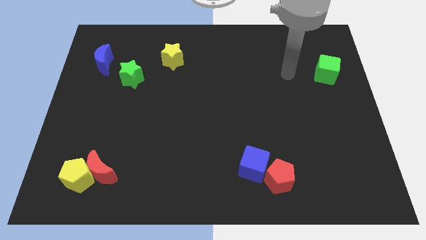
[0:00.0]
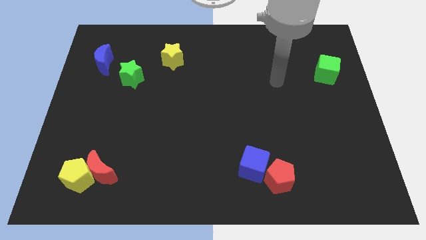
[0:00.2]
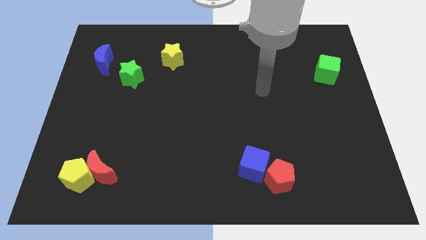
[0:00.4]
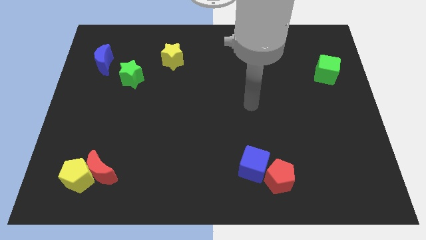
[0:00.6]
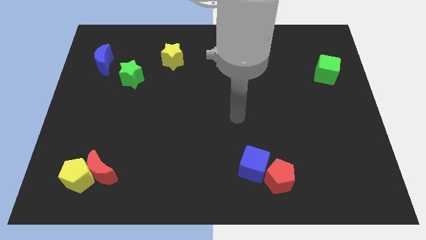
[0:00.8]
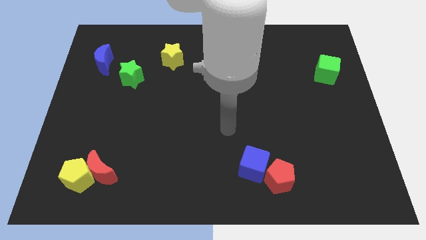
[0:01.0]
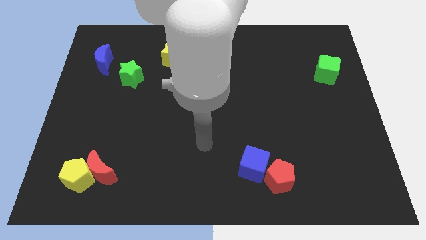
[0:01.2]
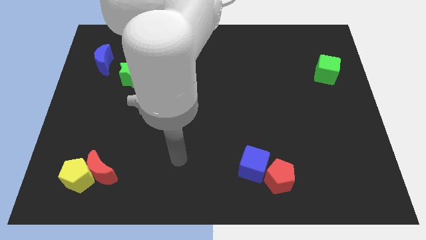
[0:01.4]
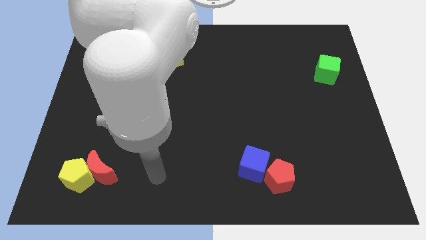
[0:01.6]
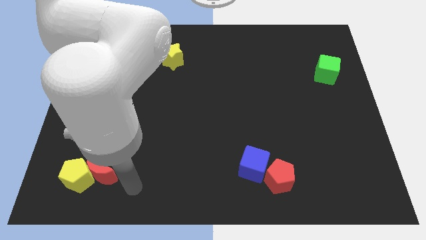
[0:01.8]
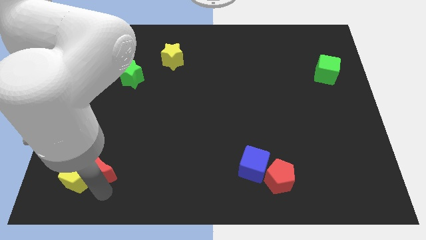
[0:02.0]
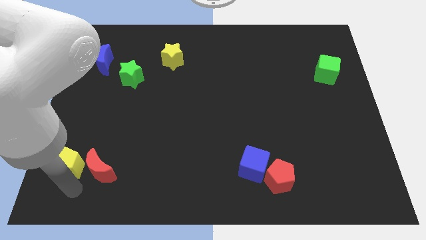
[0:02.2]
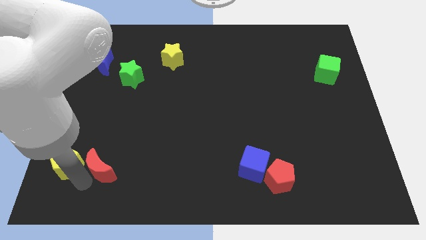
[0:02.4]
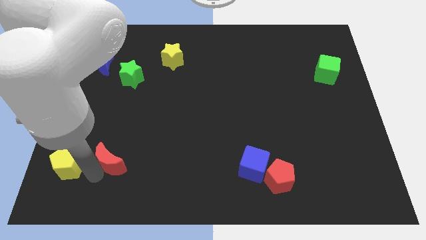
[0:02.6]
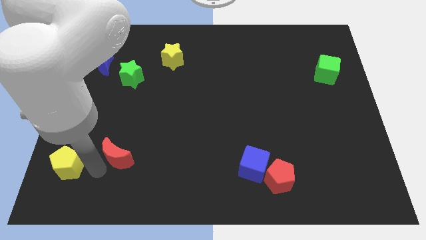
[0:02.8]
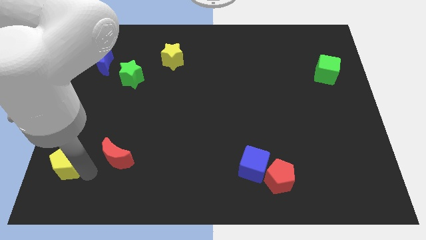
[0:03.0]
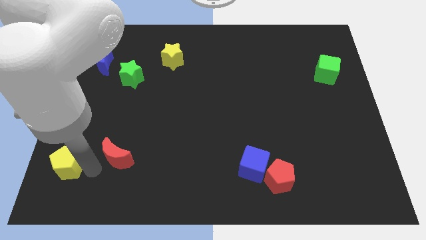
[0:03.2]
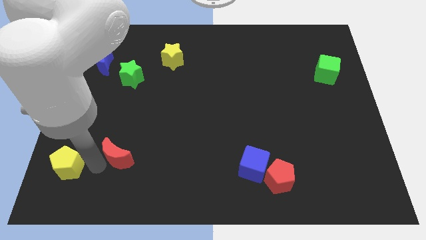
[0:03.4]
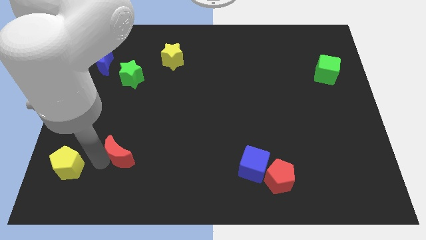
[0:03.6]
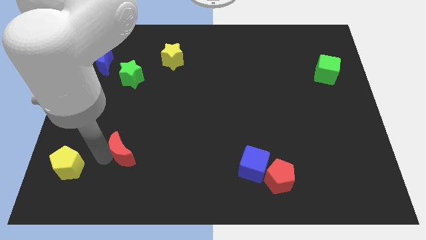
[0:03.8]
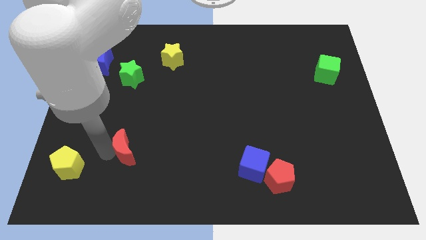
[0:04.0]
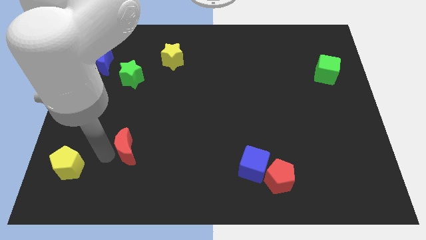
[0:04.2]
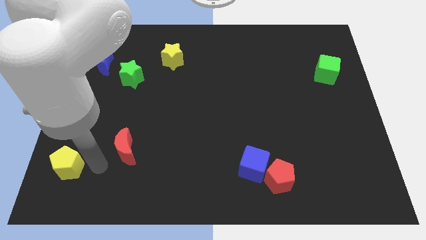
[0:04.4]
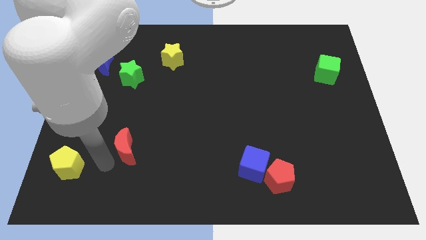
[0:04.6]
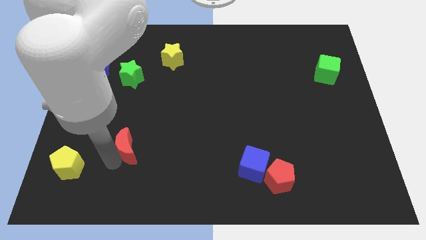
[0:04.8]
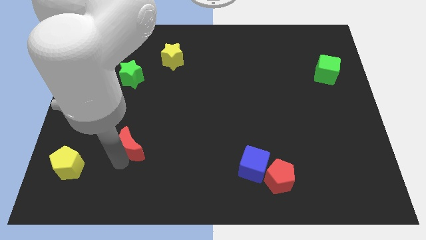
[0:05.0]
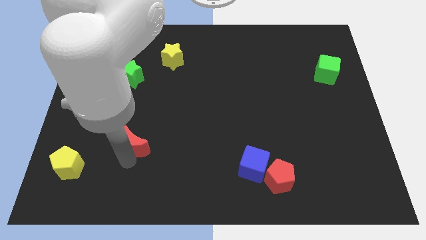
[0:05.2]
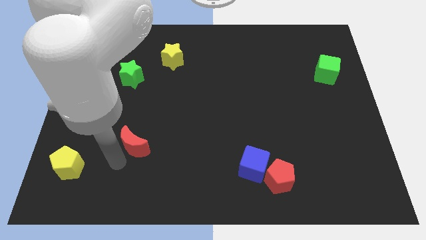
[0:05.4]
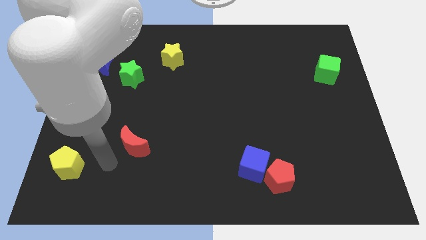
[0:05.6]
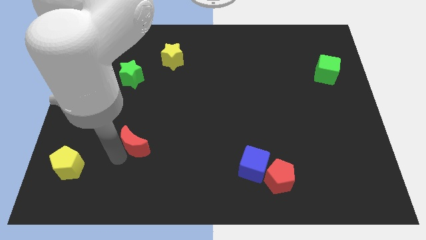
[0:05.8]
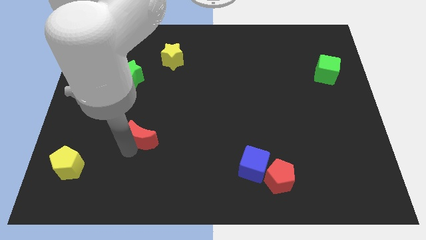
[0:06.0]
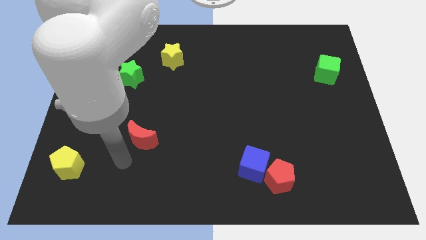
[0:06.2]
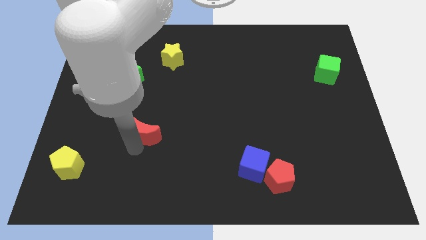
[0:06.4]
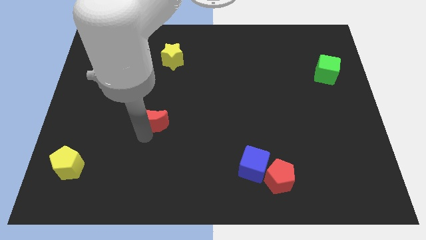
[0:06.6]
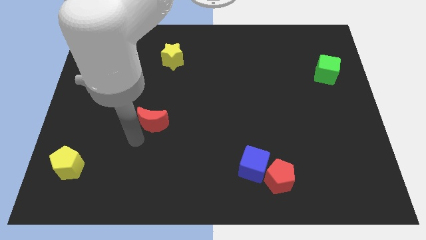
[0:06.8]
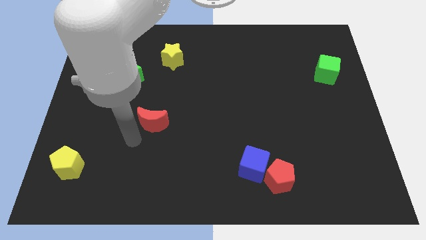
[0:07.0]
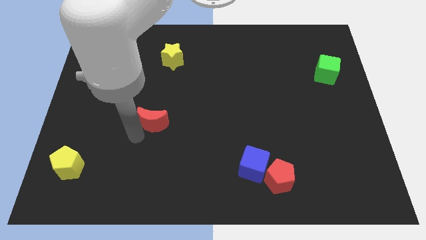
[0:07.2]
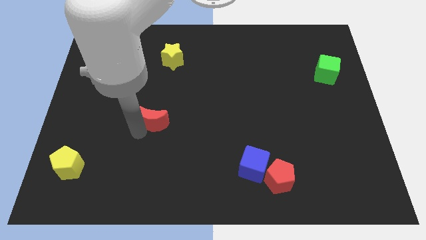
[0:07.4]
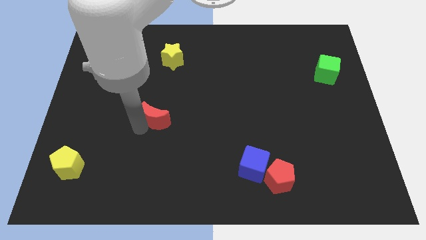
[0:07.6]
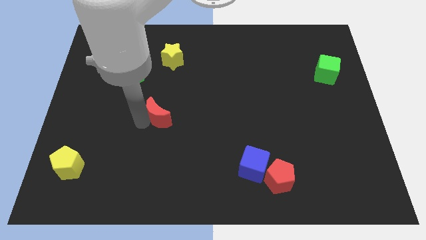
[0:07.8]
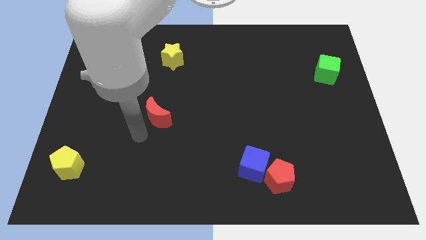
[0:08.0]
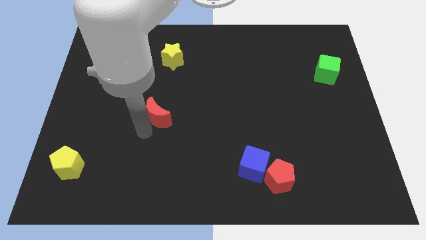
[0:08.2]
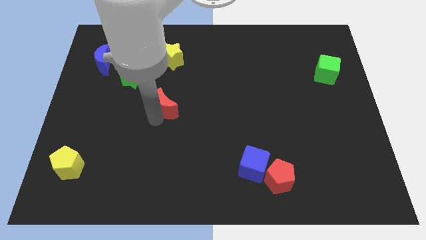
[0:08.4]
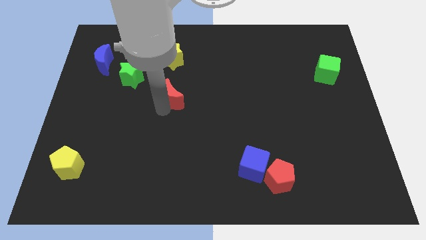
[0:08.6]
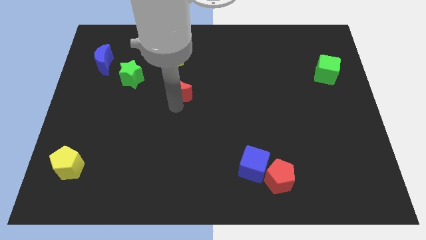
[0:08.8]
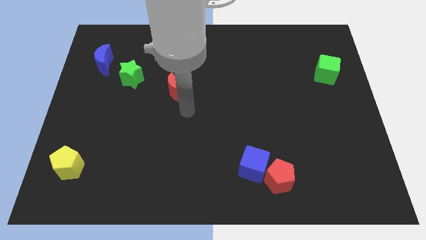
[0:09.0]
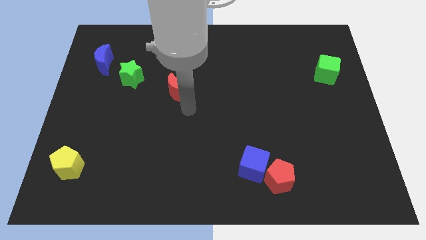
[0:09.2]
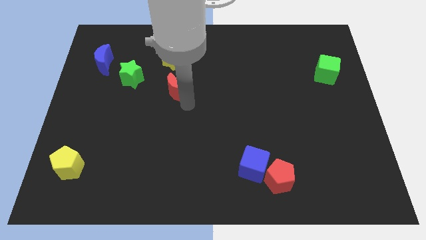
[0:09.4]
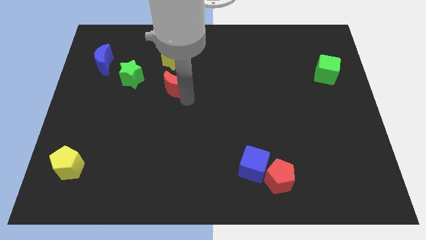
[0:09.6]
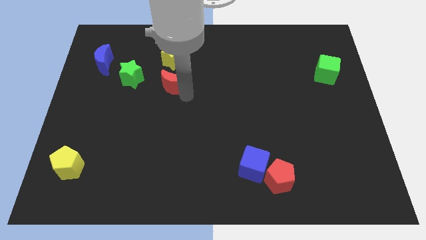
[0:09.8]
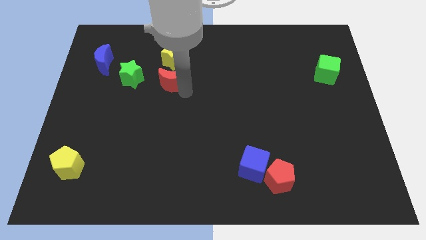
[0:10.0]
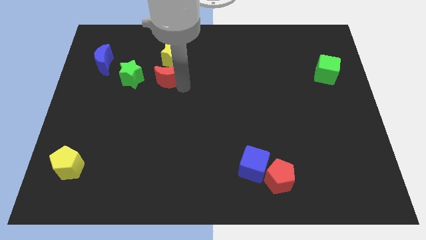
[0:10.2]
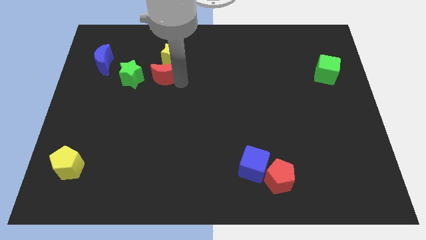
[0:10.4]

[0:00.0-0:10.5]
push the red moon upwards

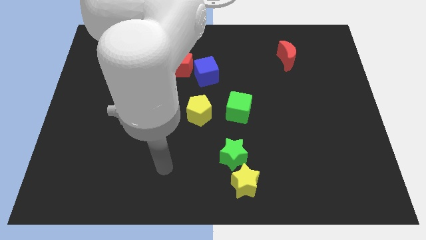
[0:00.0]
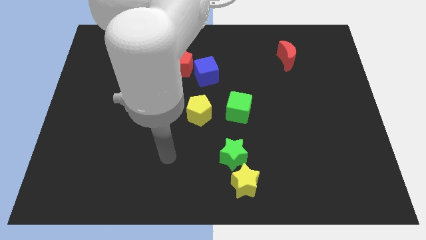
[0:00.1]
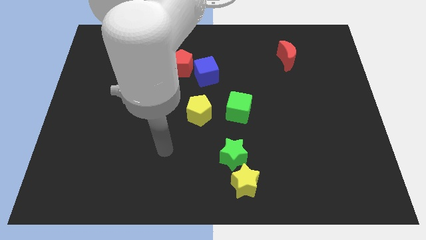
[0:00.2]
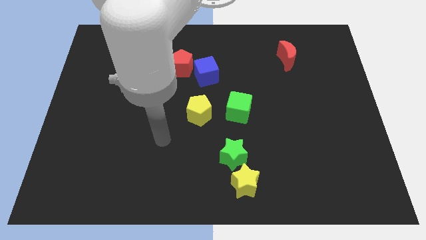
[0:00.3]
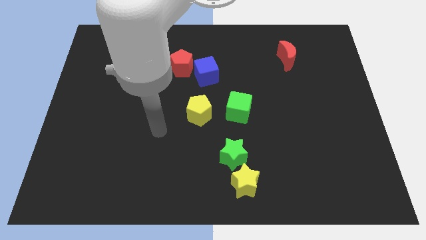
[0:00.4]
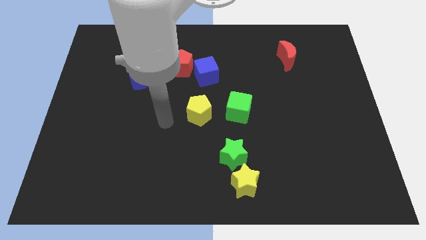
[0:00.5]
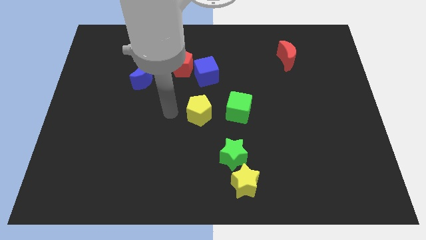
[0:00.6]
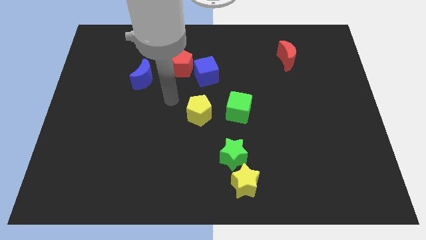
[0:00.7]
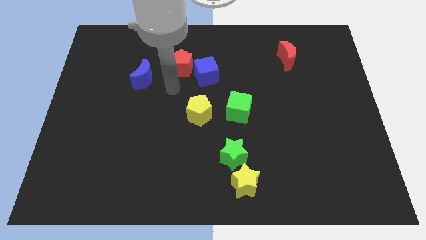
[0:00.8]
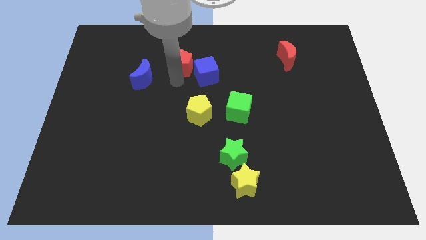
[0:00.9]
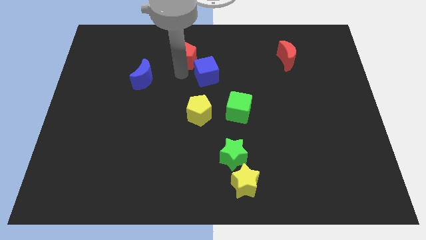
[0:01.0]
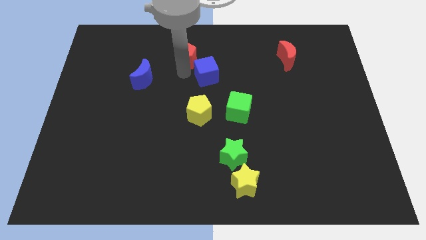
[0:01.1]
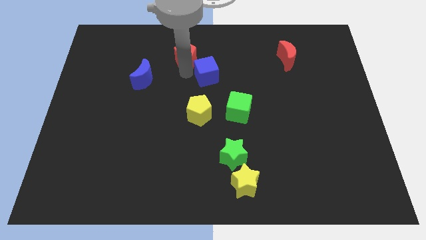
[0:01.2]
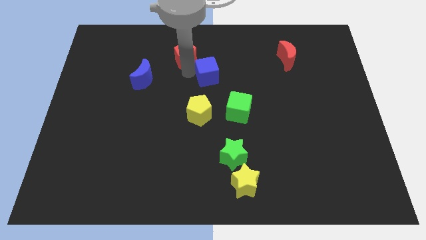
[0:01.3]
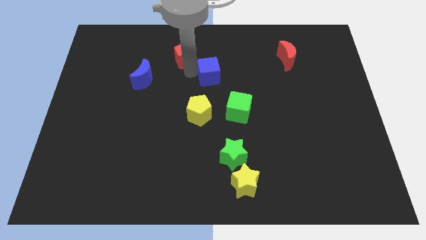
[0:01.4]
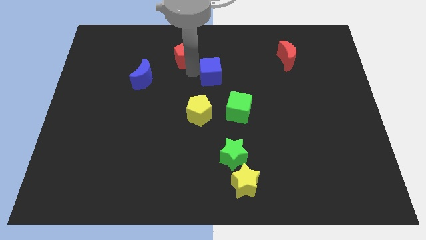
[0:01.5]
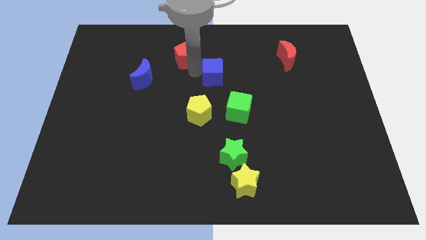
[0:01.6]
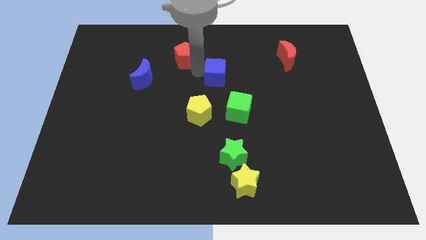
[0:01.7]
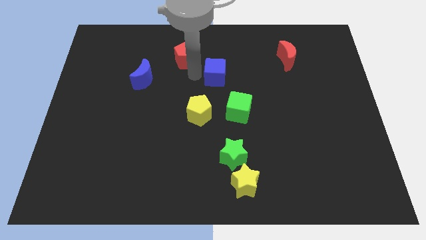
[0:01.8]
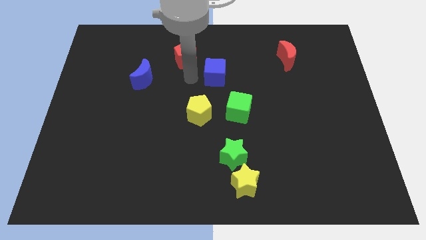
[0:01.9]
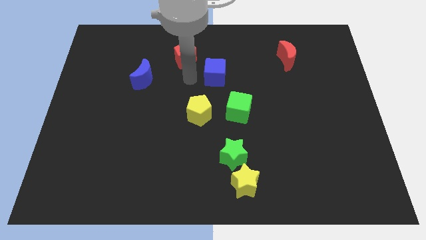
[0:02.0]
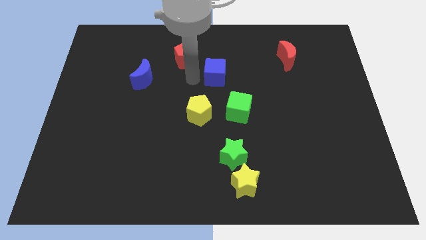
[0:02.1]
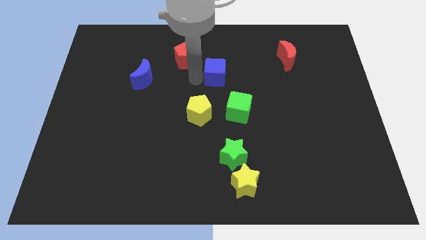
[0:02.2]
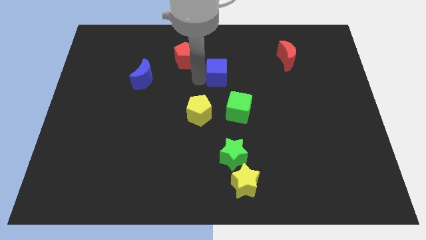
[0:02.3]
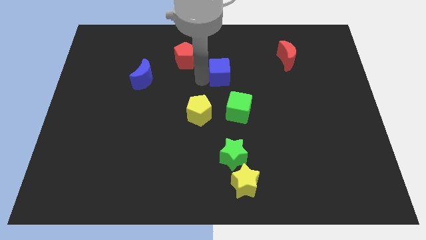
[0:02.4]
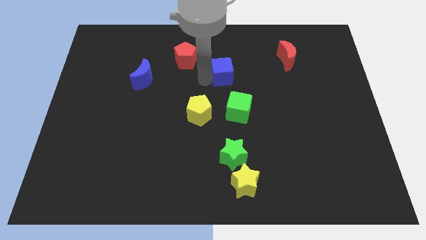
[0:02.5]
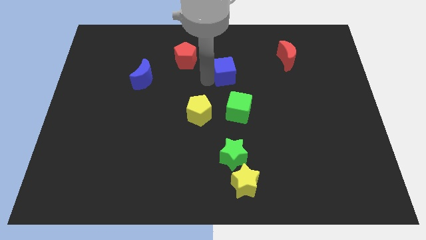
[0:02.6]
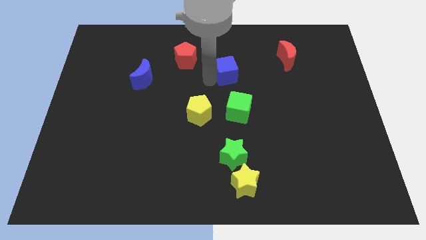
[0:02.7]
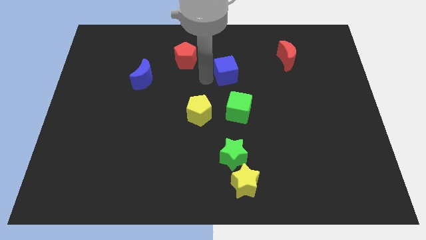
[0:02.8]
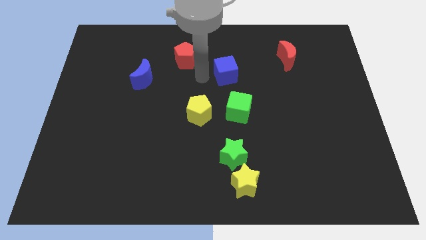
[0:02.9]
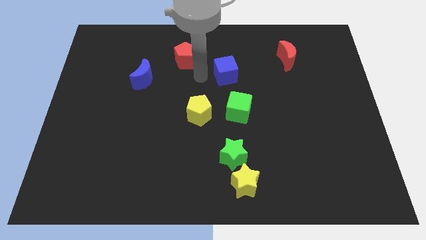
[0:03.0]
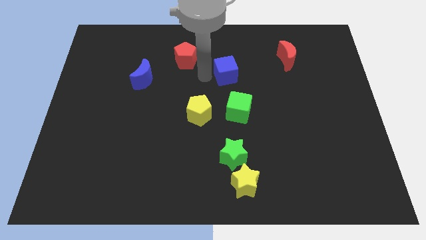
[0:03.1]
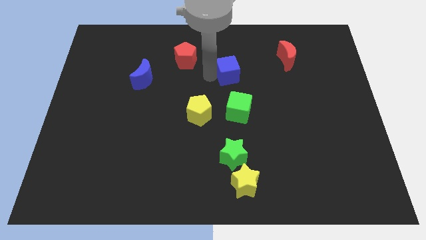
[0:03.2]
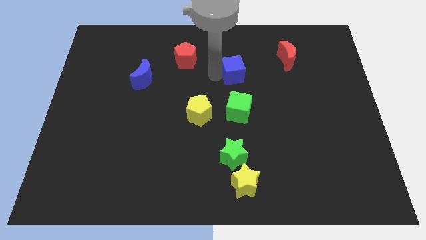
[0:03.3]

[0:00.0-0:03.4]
slide the blue cube to the right slightly
